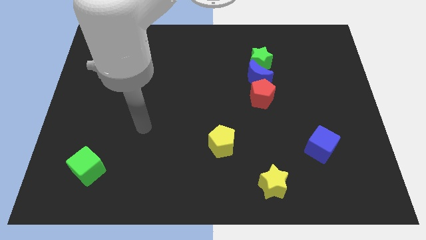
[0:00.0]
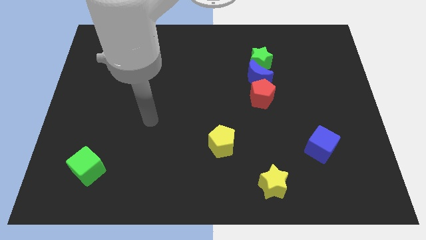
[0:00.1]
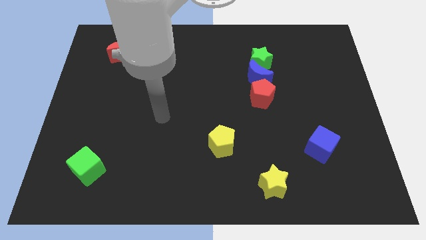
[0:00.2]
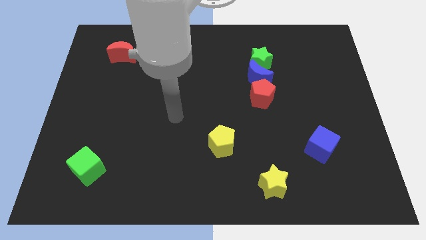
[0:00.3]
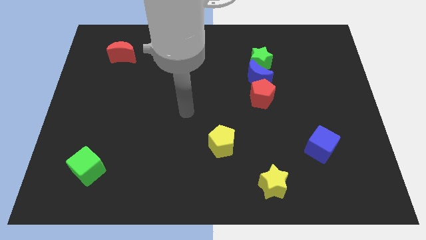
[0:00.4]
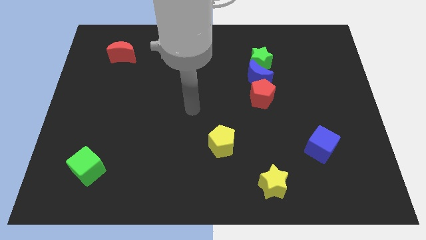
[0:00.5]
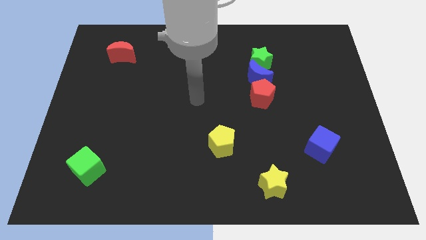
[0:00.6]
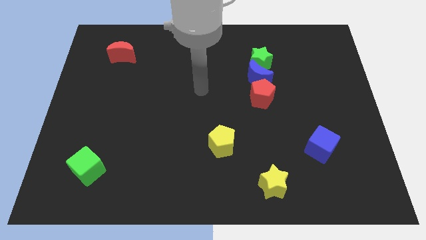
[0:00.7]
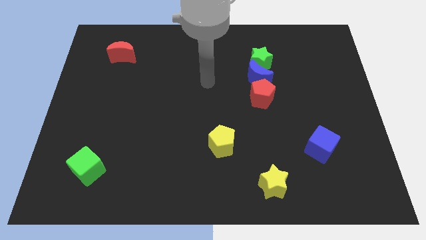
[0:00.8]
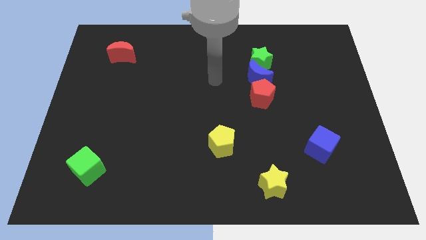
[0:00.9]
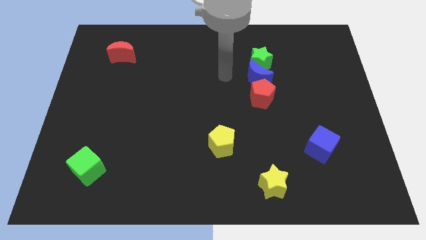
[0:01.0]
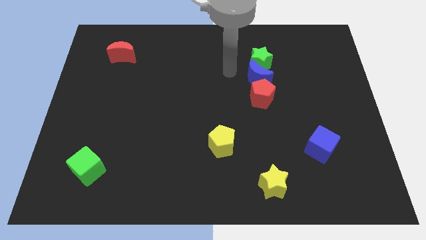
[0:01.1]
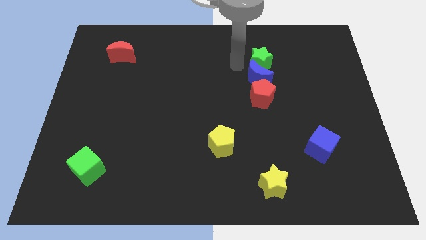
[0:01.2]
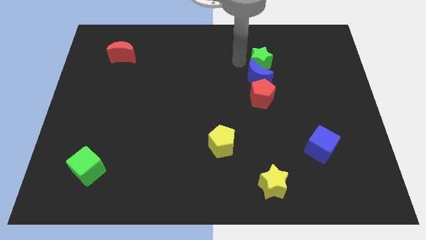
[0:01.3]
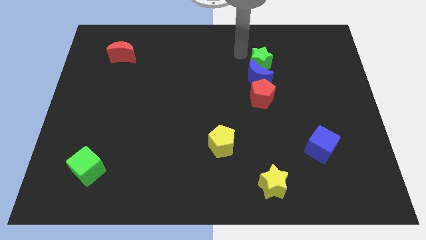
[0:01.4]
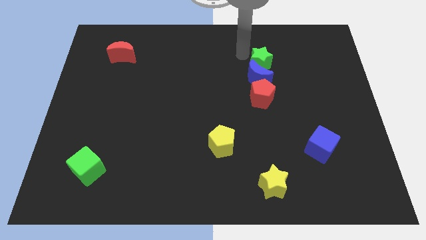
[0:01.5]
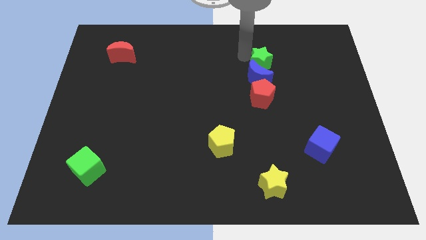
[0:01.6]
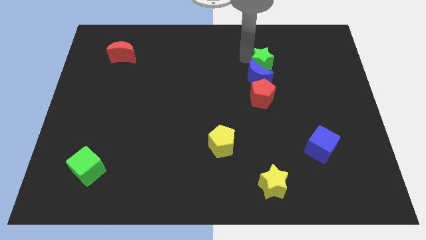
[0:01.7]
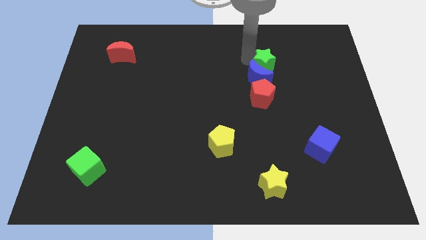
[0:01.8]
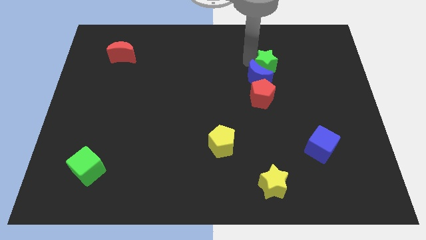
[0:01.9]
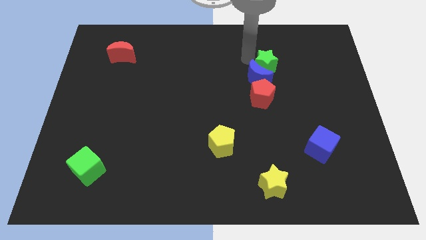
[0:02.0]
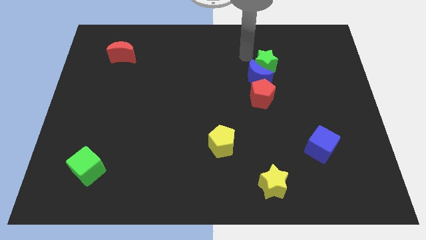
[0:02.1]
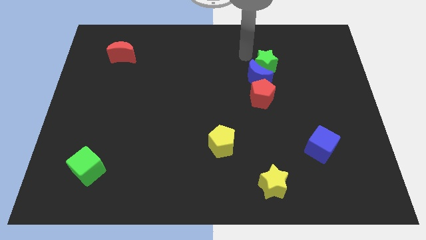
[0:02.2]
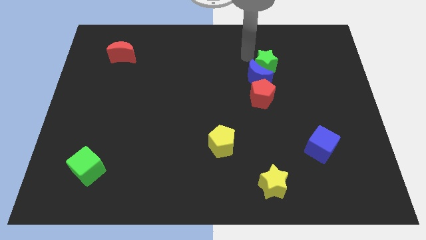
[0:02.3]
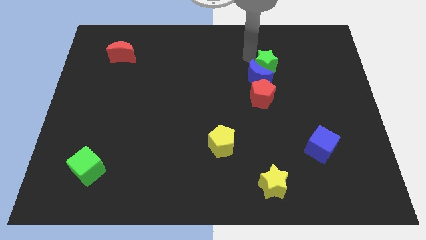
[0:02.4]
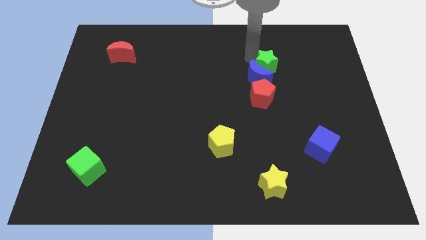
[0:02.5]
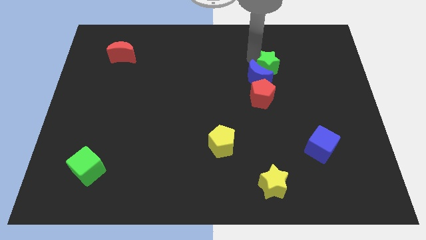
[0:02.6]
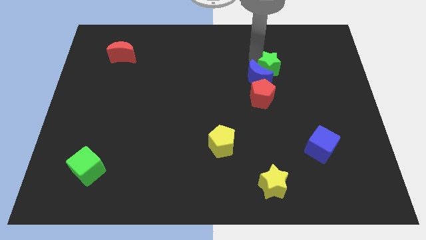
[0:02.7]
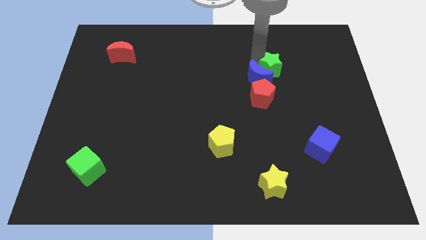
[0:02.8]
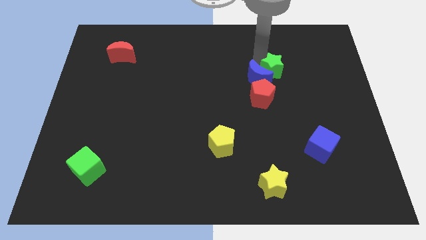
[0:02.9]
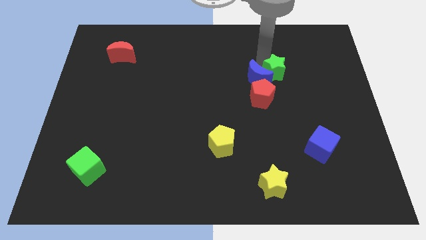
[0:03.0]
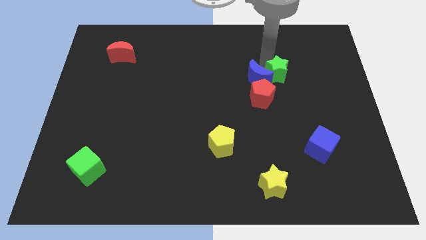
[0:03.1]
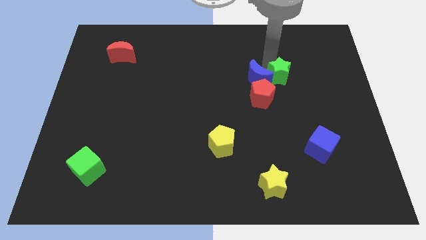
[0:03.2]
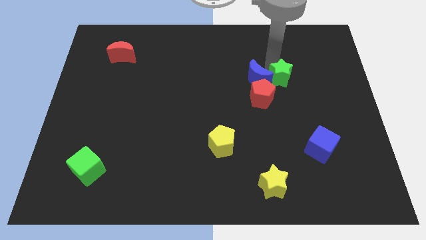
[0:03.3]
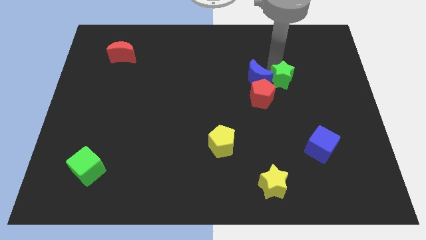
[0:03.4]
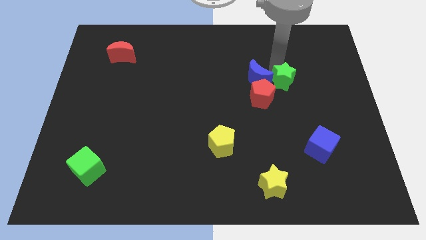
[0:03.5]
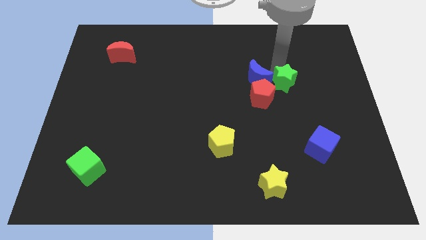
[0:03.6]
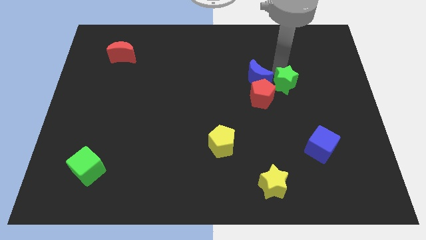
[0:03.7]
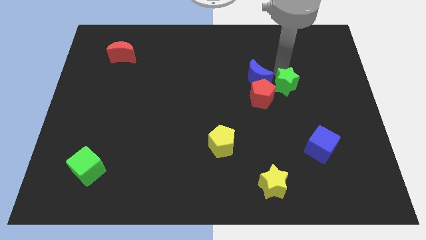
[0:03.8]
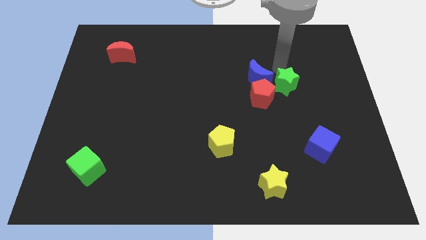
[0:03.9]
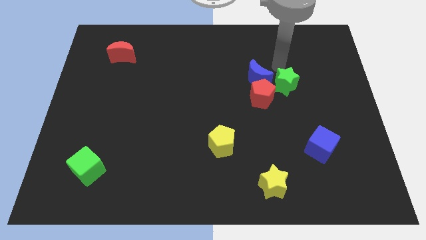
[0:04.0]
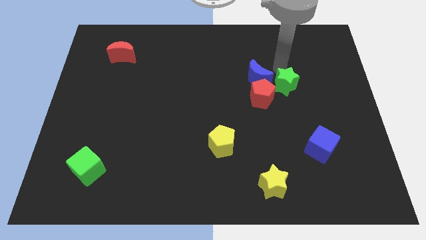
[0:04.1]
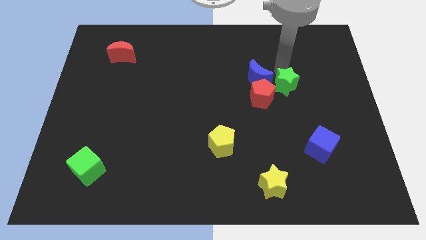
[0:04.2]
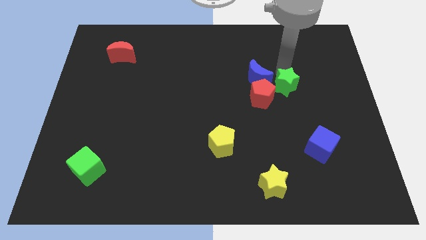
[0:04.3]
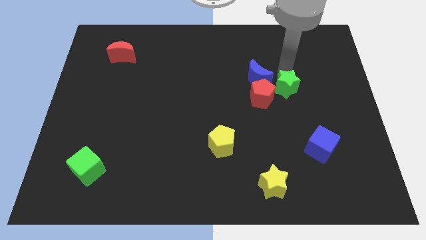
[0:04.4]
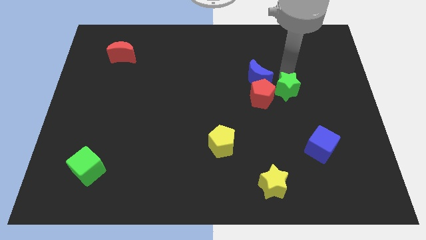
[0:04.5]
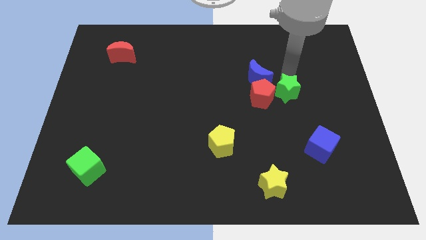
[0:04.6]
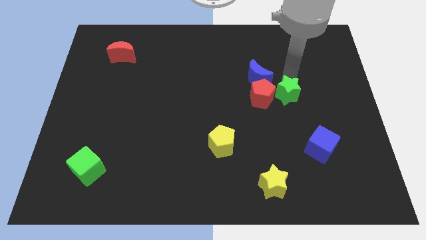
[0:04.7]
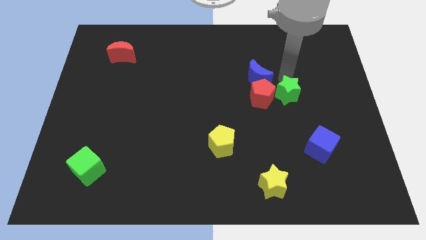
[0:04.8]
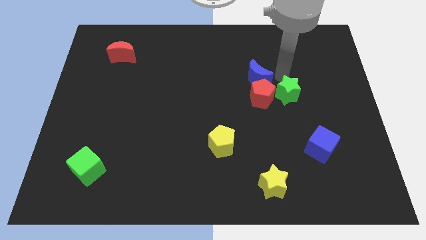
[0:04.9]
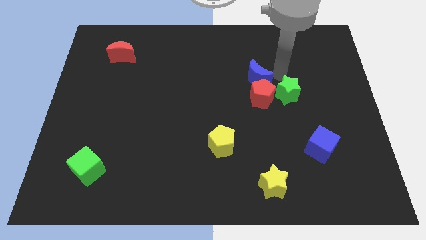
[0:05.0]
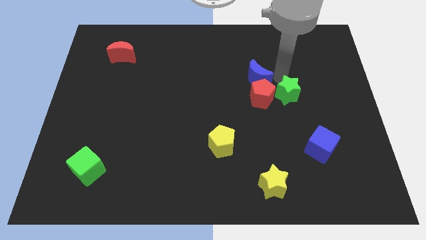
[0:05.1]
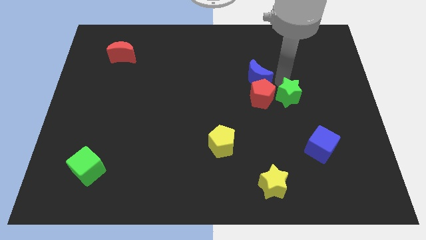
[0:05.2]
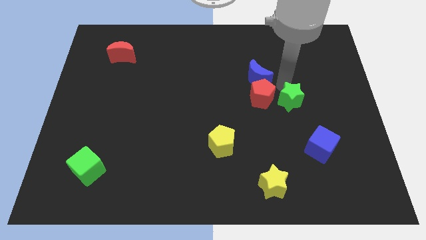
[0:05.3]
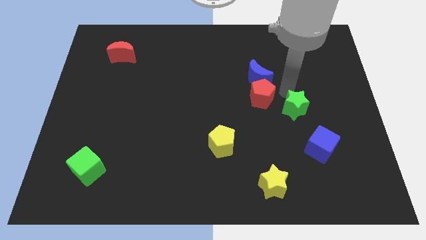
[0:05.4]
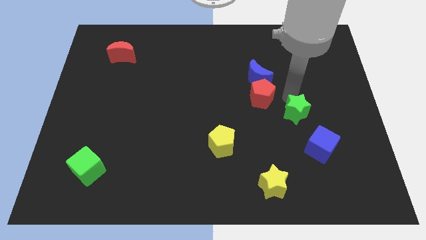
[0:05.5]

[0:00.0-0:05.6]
put the green star diagonally up and to the left of the blue cube

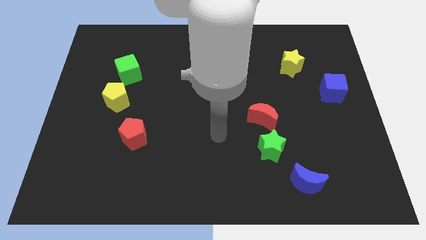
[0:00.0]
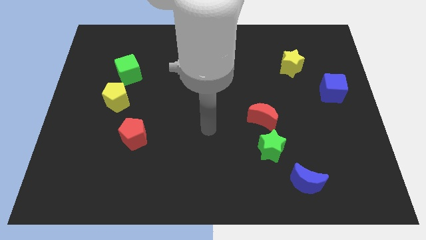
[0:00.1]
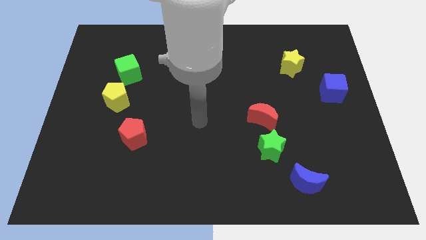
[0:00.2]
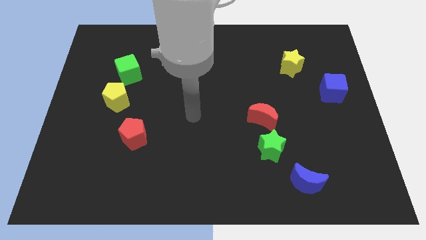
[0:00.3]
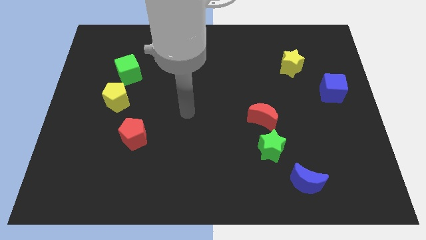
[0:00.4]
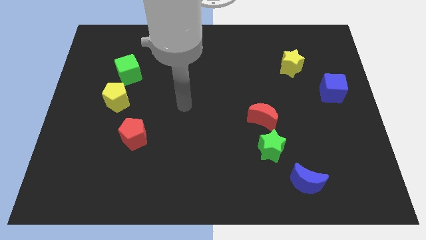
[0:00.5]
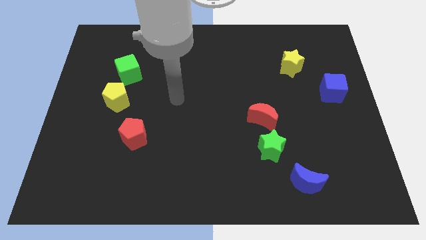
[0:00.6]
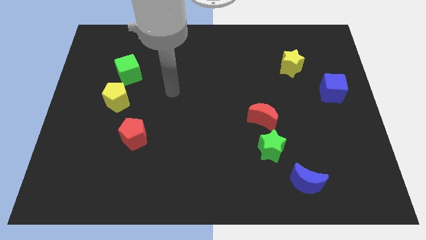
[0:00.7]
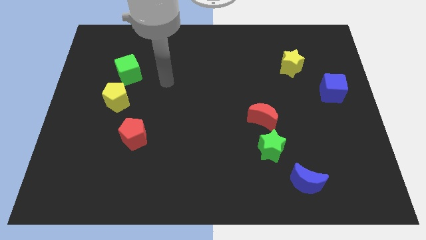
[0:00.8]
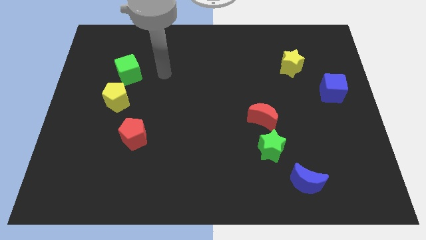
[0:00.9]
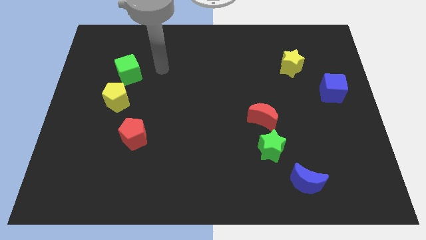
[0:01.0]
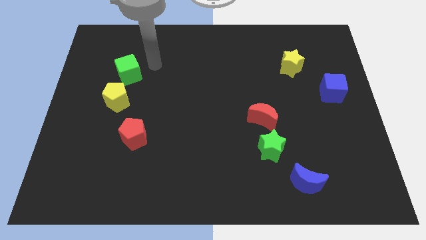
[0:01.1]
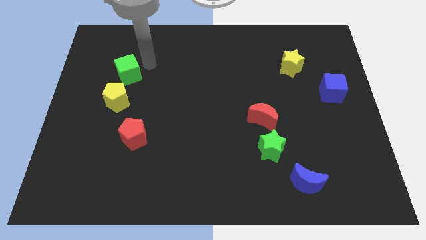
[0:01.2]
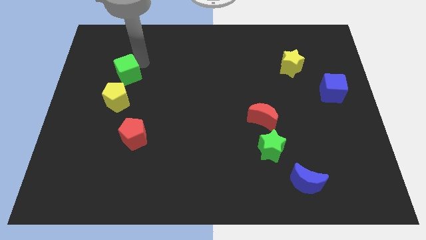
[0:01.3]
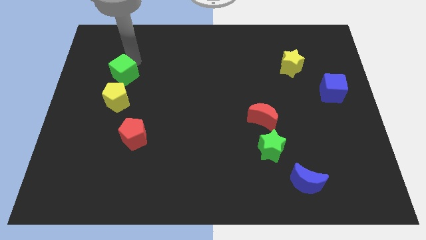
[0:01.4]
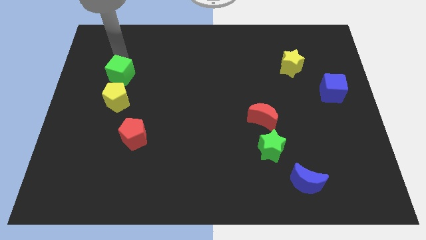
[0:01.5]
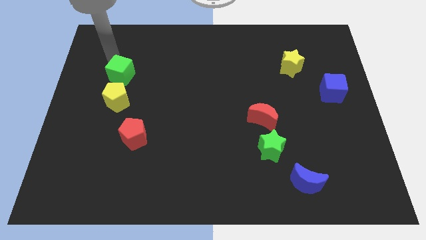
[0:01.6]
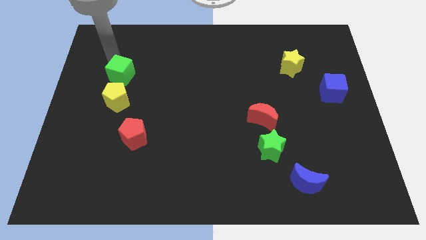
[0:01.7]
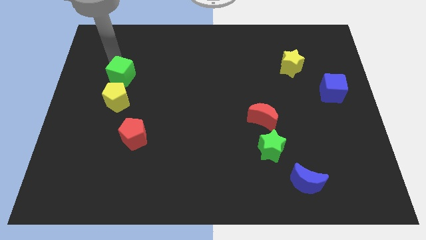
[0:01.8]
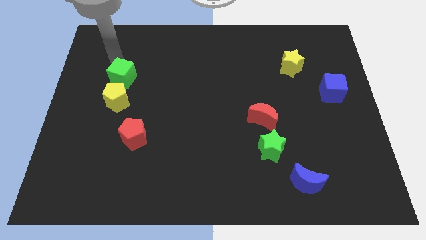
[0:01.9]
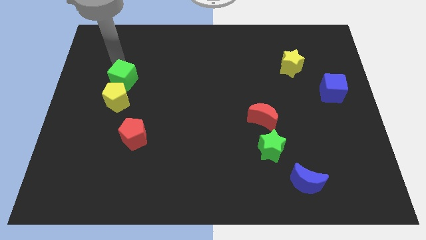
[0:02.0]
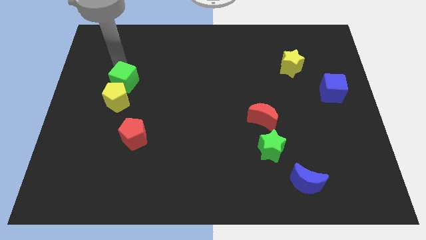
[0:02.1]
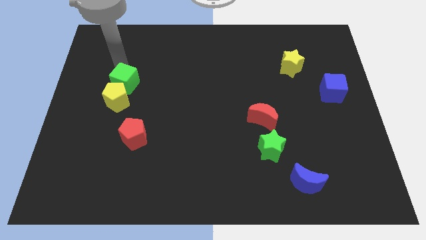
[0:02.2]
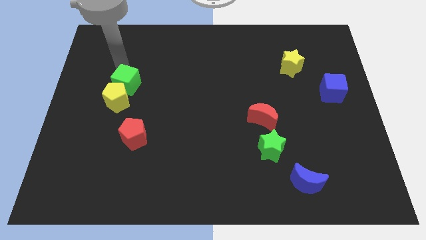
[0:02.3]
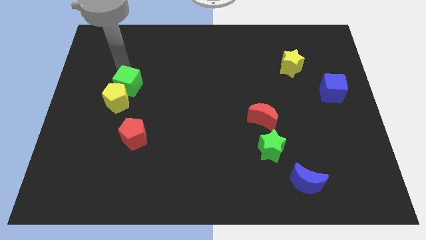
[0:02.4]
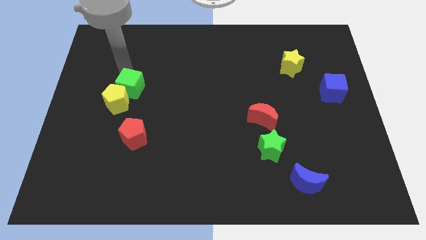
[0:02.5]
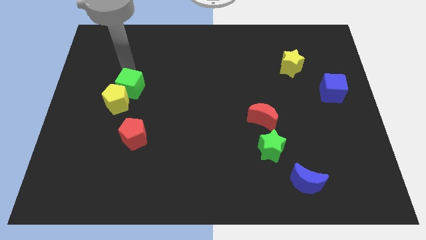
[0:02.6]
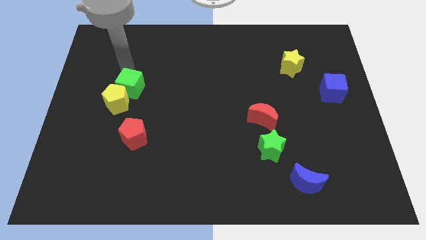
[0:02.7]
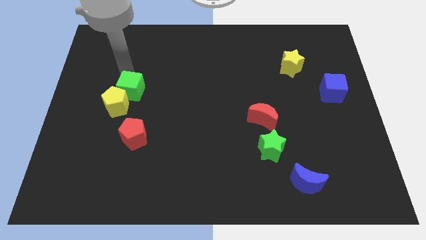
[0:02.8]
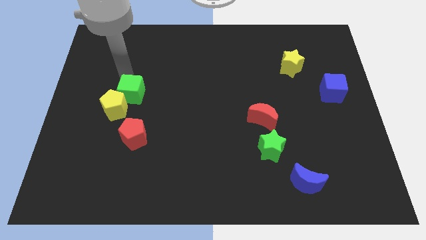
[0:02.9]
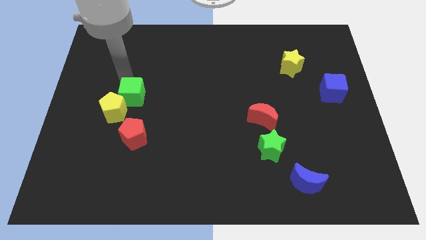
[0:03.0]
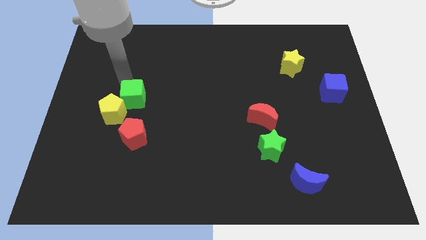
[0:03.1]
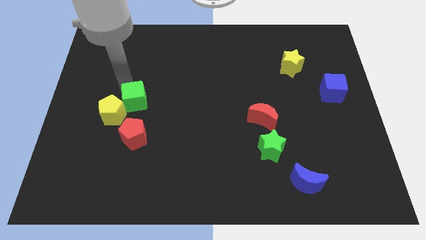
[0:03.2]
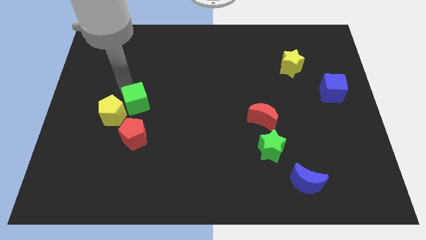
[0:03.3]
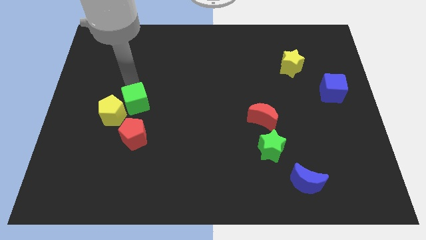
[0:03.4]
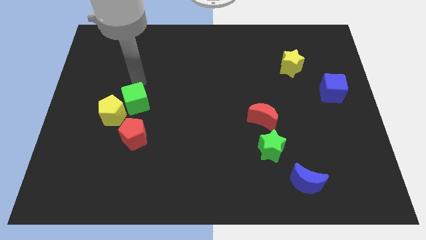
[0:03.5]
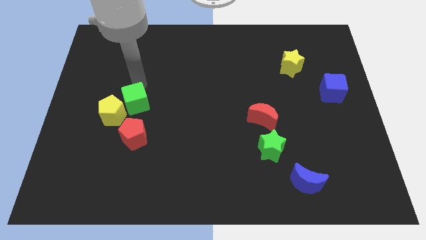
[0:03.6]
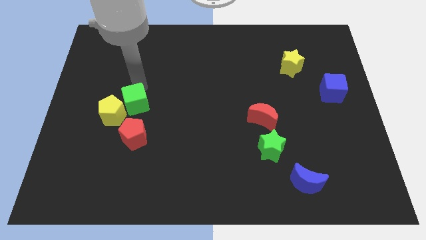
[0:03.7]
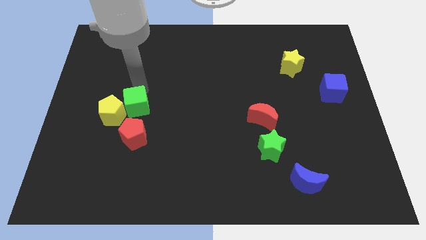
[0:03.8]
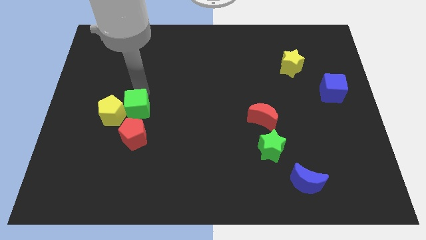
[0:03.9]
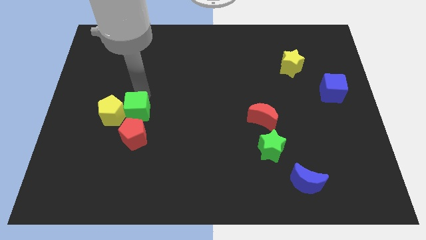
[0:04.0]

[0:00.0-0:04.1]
slide the green cube to the bottom right side of the yellow pentagon
